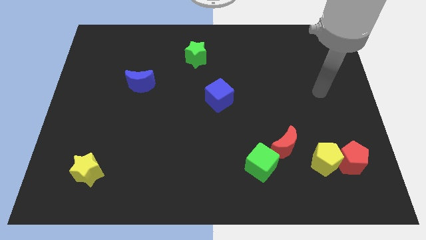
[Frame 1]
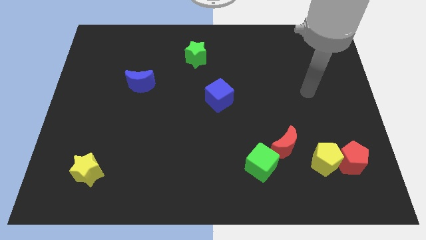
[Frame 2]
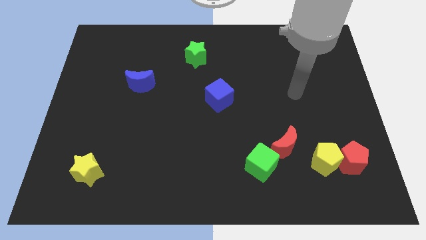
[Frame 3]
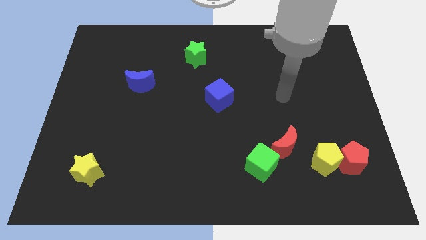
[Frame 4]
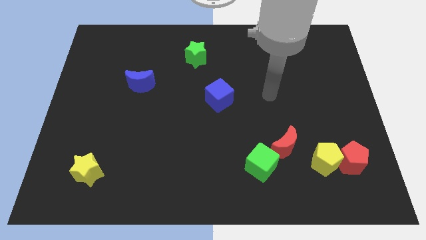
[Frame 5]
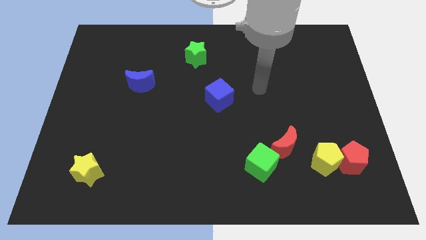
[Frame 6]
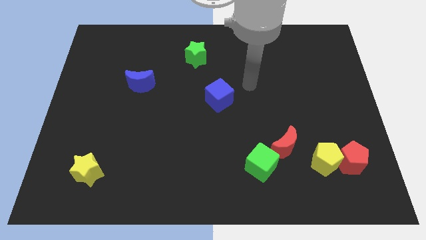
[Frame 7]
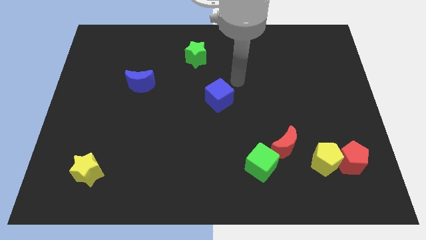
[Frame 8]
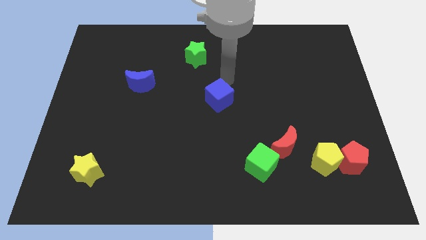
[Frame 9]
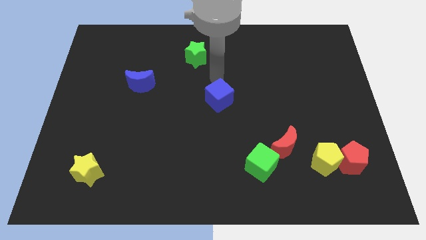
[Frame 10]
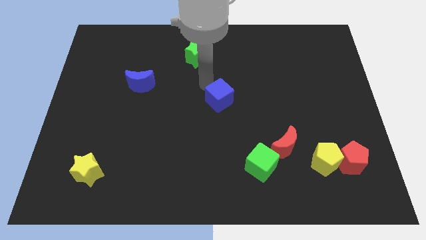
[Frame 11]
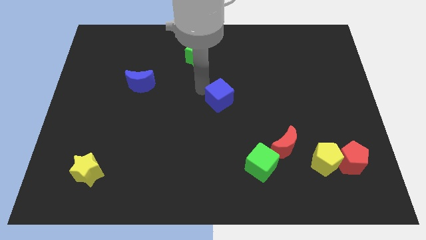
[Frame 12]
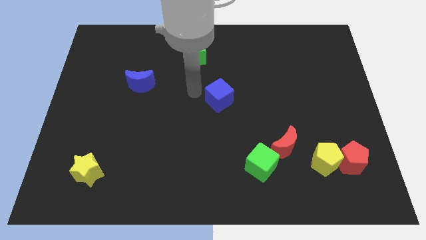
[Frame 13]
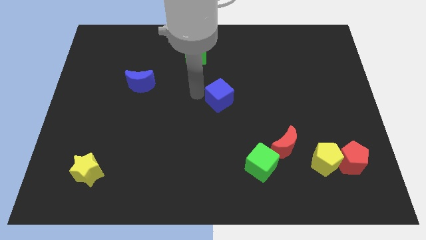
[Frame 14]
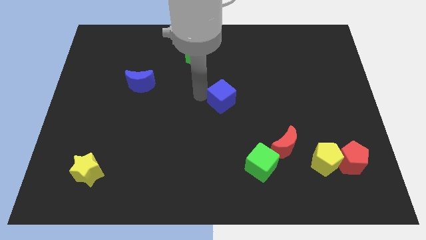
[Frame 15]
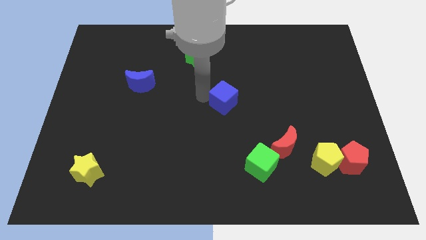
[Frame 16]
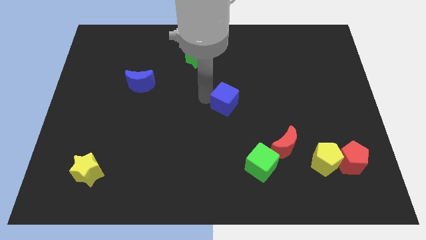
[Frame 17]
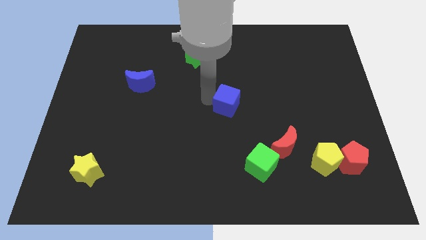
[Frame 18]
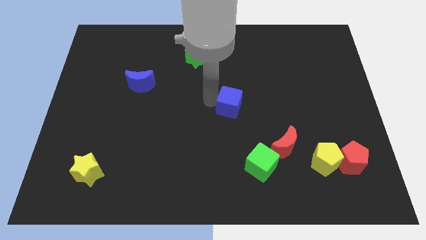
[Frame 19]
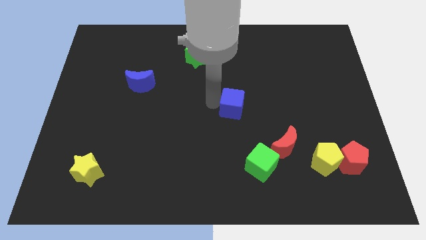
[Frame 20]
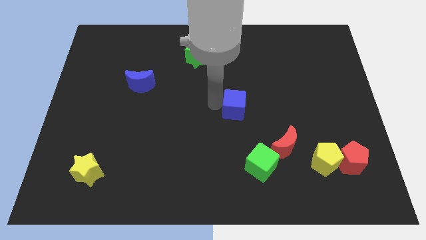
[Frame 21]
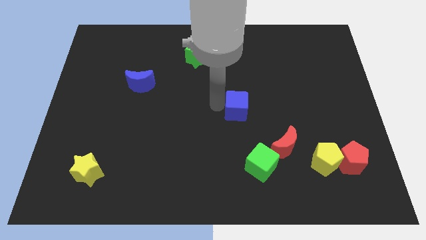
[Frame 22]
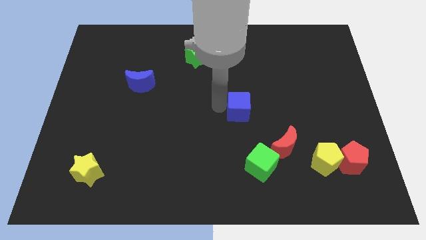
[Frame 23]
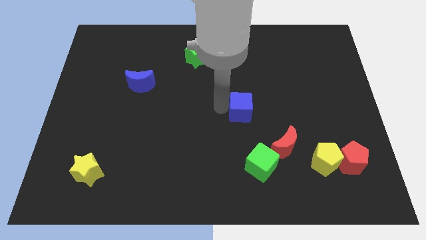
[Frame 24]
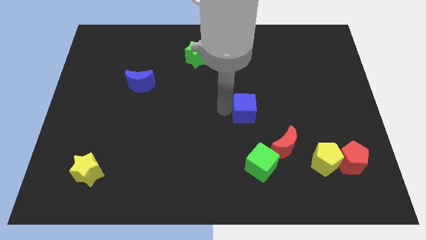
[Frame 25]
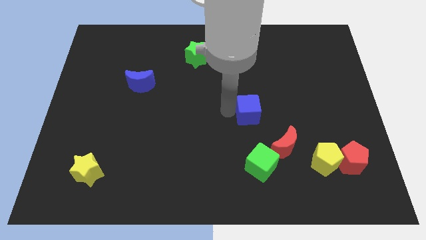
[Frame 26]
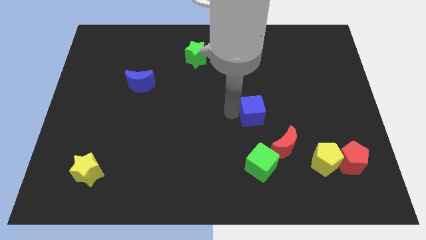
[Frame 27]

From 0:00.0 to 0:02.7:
push the blue cube right a bit

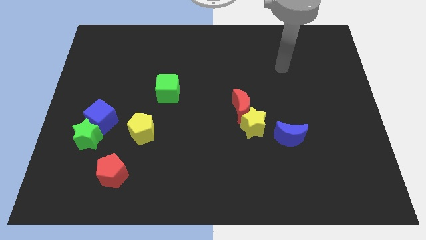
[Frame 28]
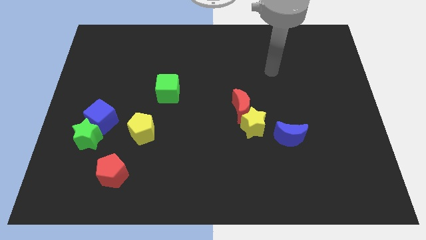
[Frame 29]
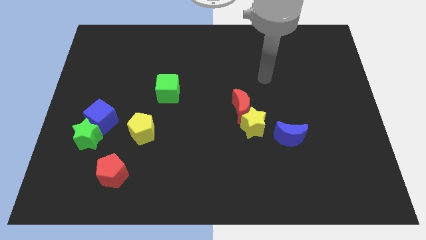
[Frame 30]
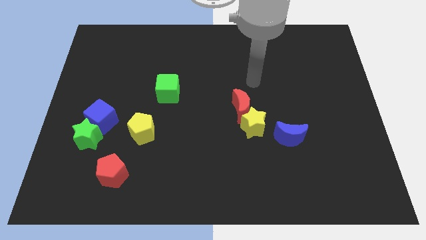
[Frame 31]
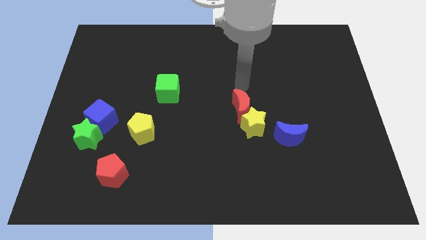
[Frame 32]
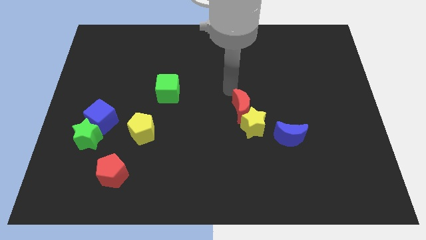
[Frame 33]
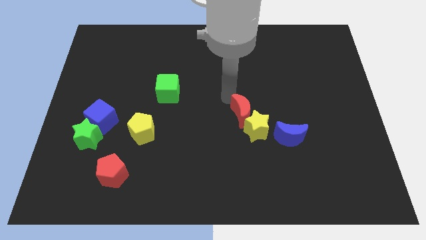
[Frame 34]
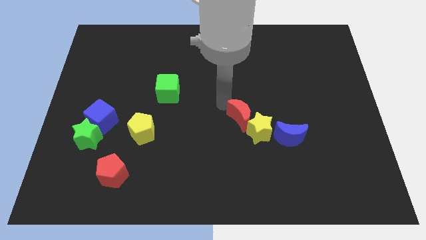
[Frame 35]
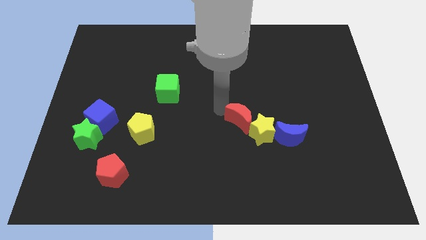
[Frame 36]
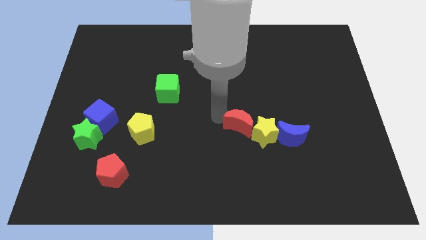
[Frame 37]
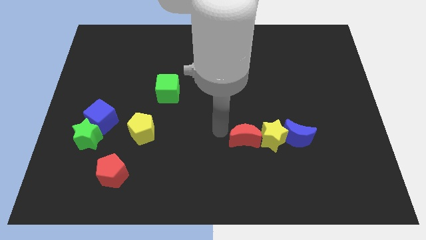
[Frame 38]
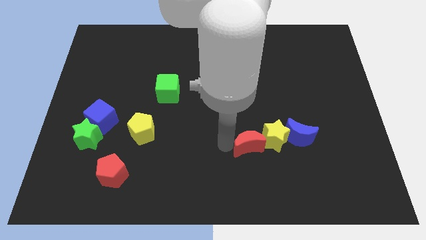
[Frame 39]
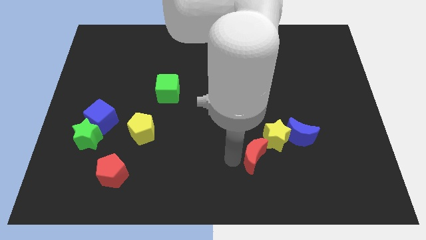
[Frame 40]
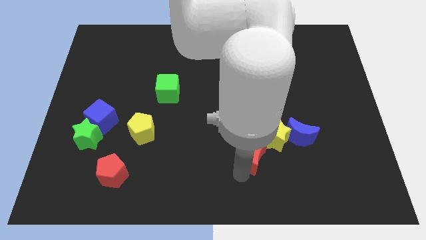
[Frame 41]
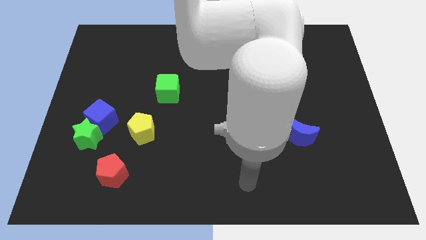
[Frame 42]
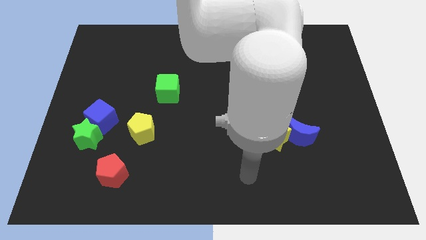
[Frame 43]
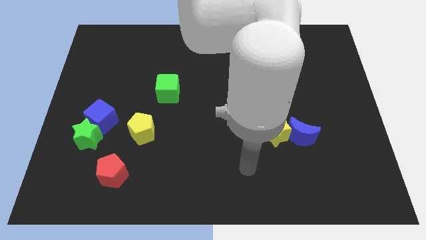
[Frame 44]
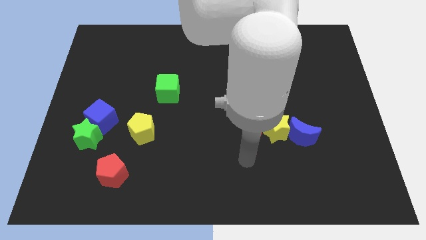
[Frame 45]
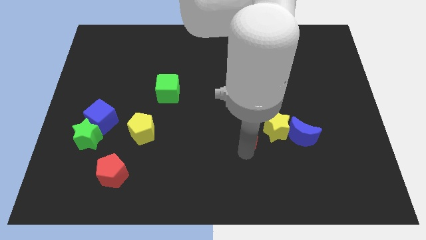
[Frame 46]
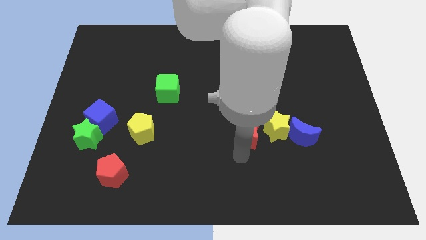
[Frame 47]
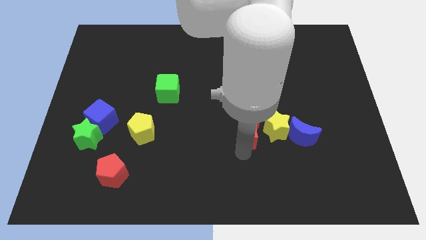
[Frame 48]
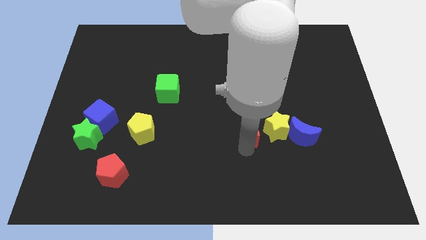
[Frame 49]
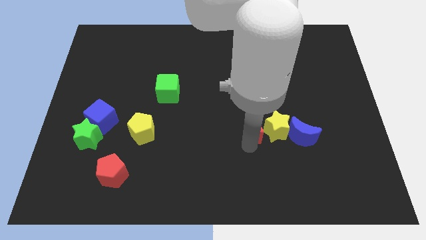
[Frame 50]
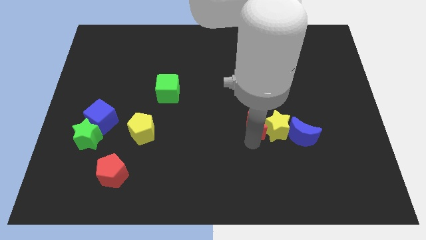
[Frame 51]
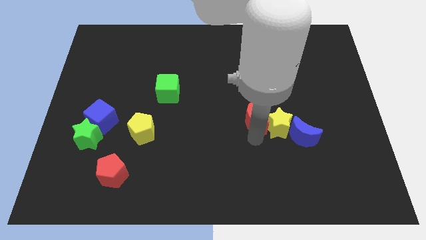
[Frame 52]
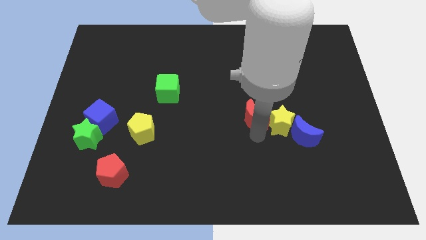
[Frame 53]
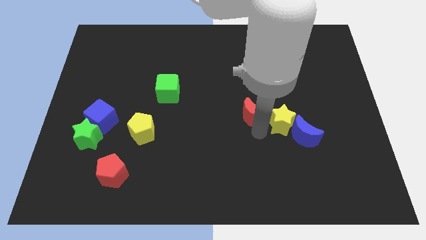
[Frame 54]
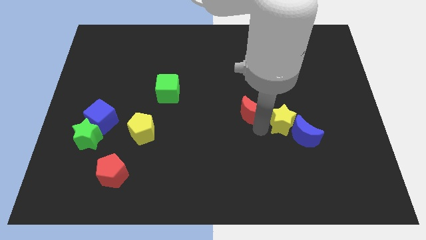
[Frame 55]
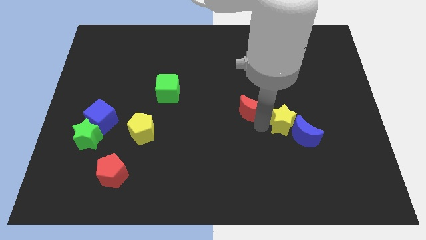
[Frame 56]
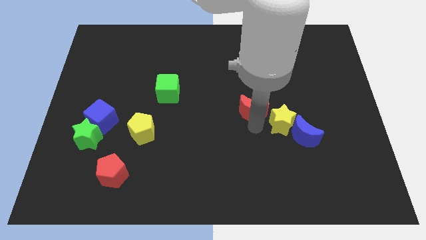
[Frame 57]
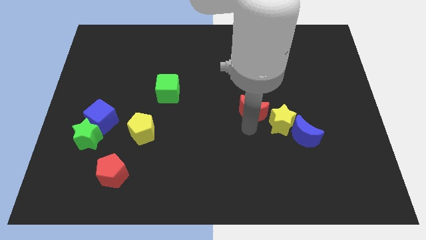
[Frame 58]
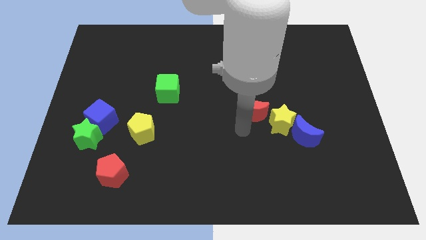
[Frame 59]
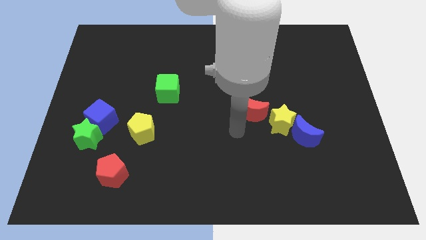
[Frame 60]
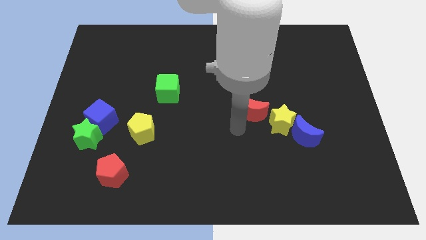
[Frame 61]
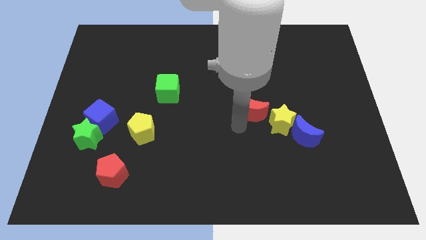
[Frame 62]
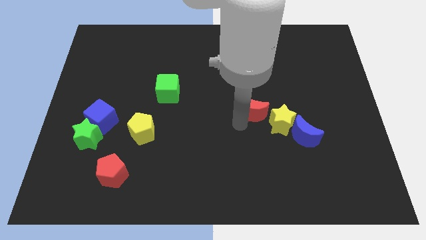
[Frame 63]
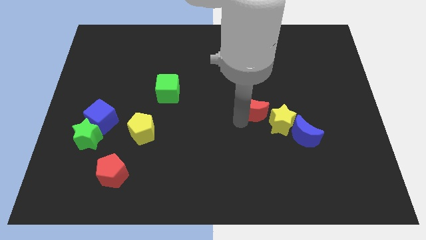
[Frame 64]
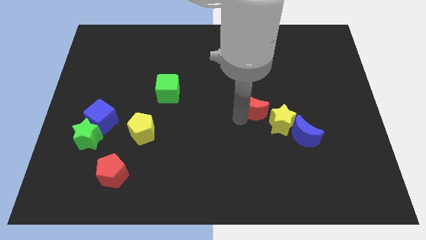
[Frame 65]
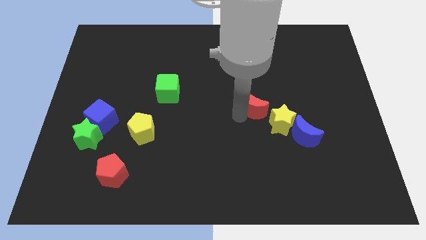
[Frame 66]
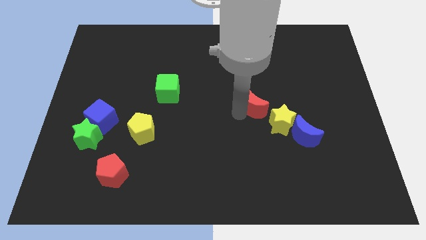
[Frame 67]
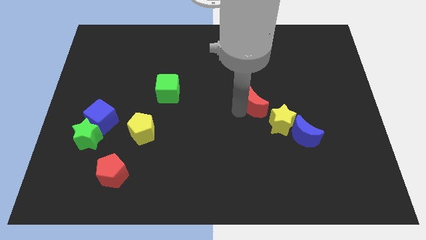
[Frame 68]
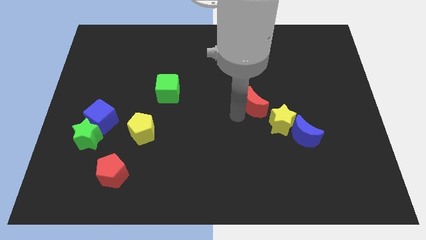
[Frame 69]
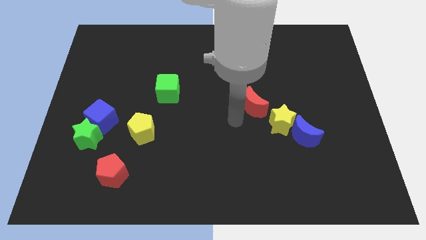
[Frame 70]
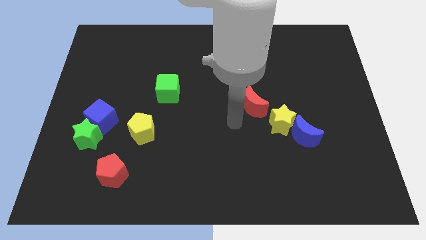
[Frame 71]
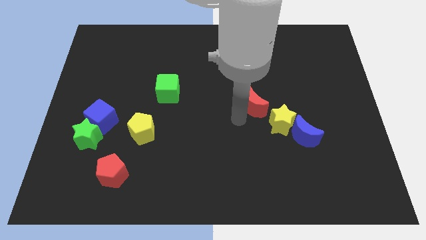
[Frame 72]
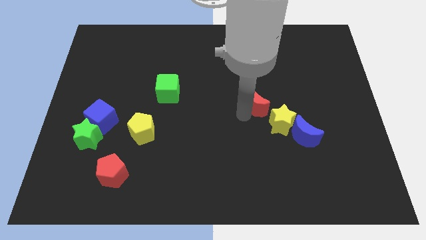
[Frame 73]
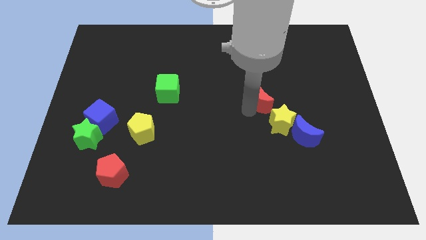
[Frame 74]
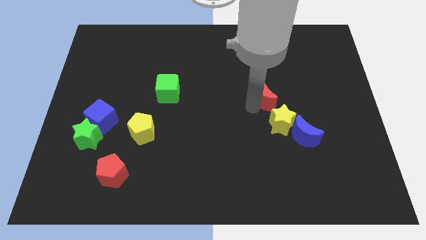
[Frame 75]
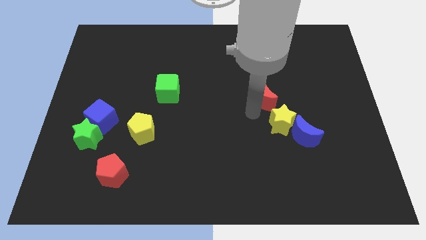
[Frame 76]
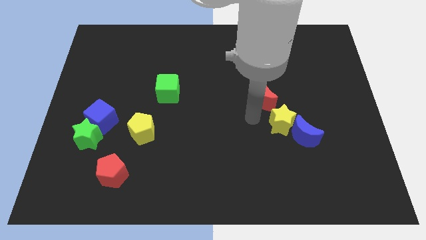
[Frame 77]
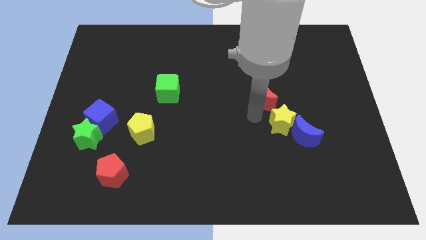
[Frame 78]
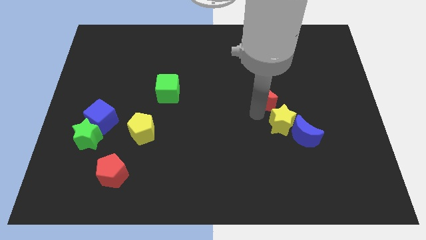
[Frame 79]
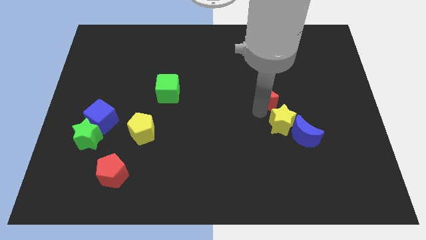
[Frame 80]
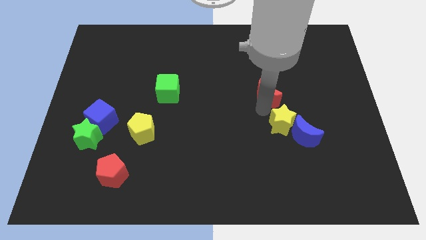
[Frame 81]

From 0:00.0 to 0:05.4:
push the red moon up and right diagonally a bit
